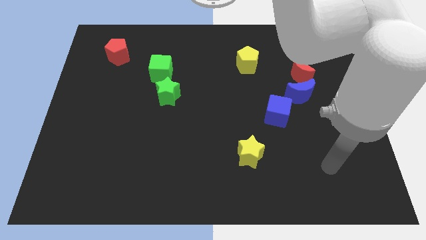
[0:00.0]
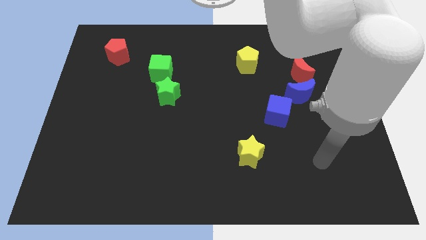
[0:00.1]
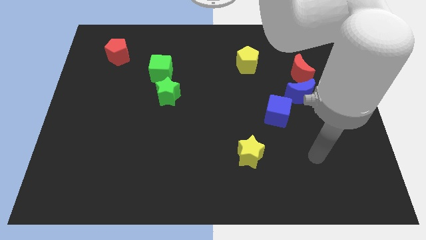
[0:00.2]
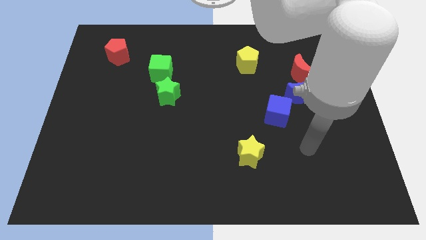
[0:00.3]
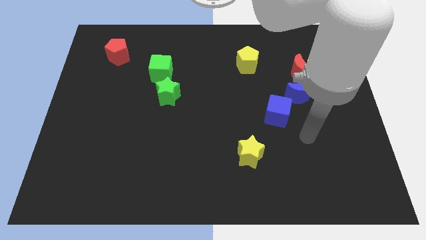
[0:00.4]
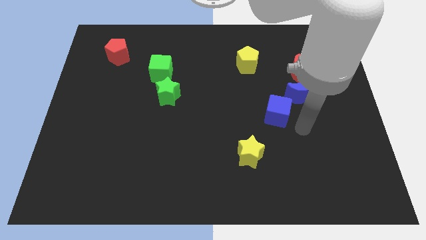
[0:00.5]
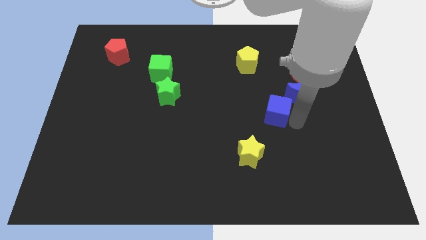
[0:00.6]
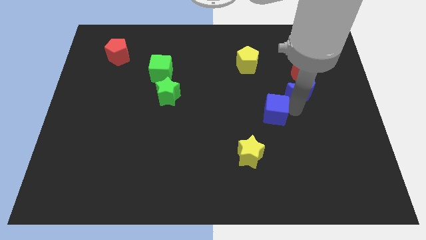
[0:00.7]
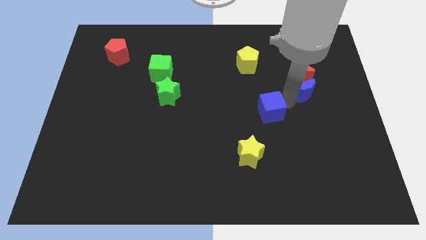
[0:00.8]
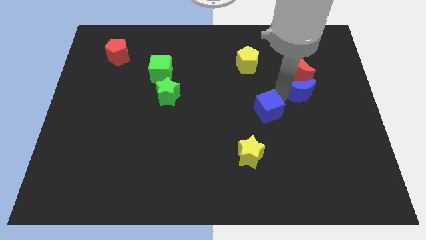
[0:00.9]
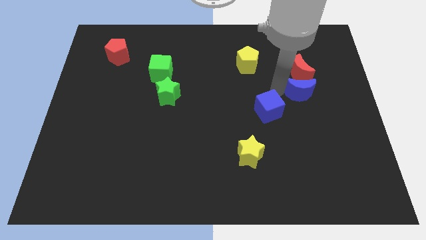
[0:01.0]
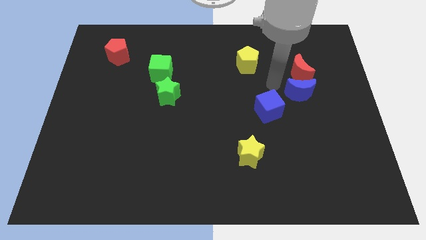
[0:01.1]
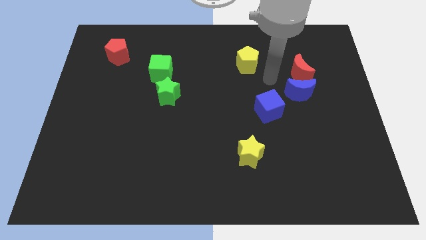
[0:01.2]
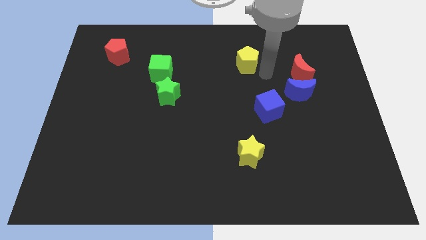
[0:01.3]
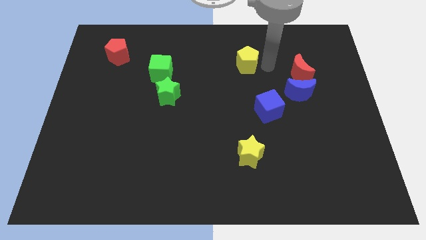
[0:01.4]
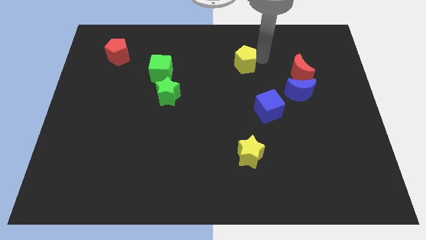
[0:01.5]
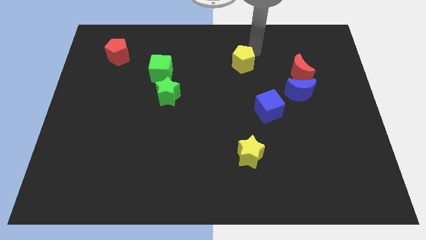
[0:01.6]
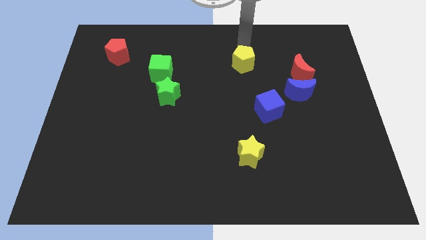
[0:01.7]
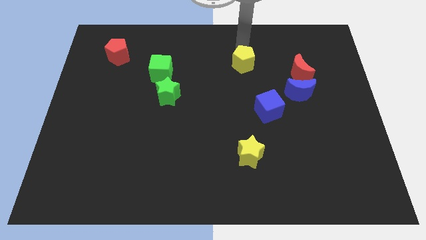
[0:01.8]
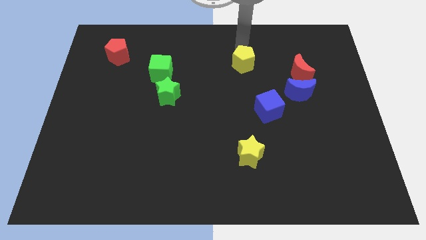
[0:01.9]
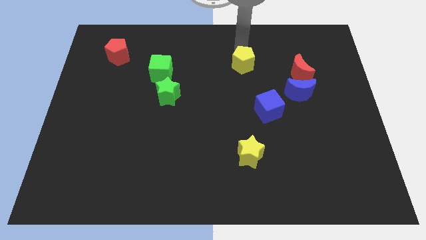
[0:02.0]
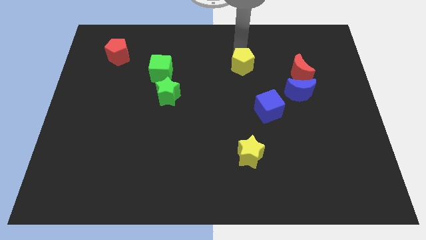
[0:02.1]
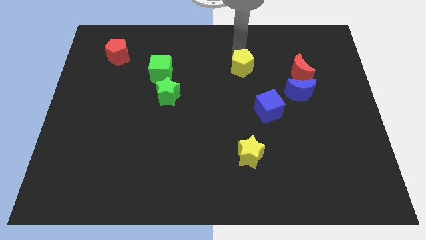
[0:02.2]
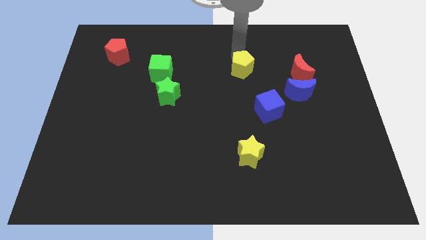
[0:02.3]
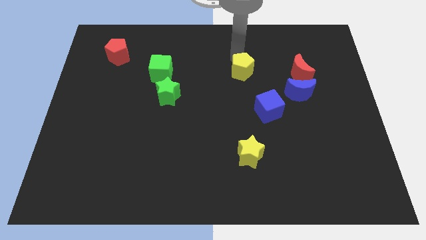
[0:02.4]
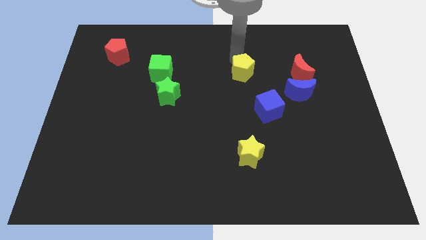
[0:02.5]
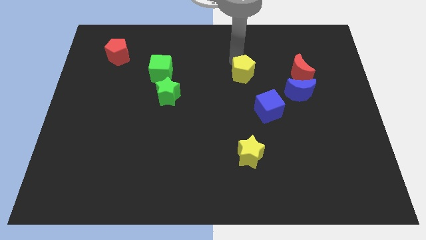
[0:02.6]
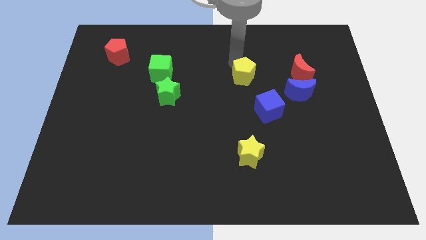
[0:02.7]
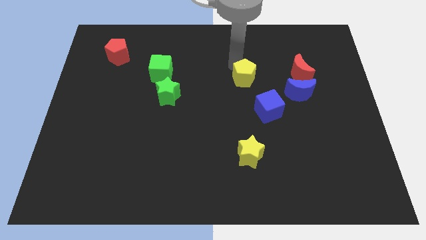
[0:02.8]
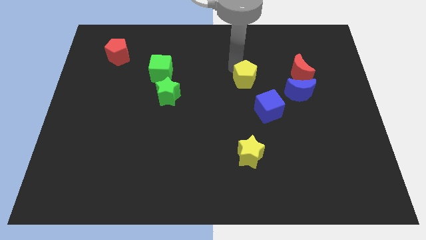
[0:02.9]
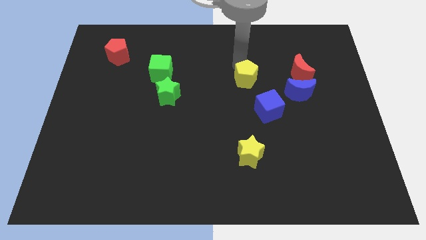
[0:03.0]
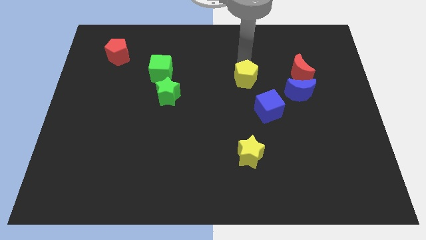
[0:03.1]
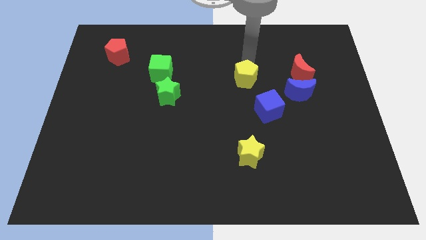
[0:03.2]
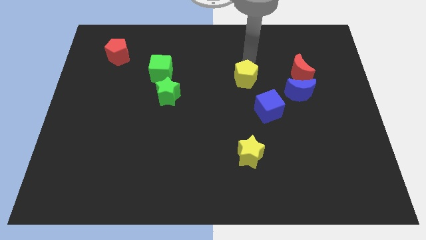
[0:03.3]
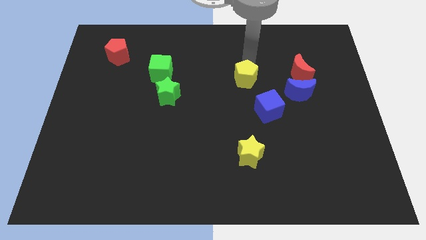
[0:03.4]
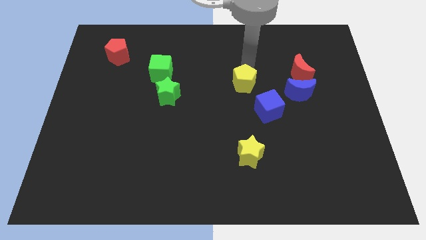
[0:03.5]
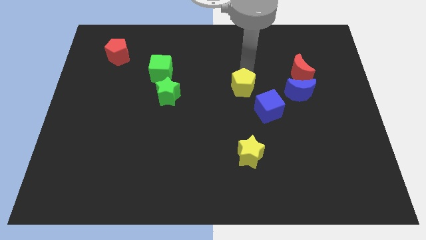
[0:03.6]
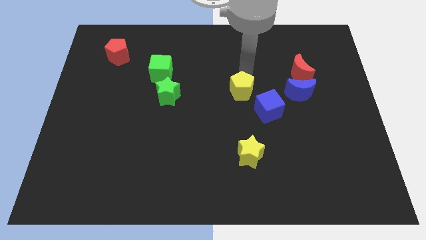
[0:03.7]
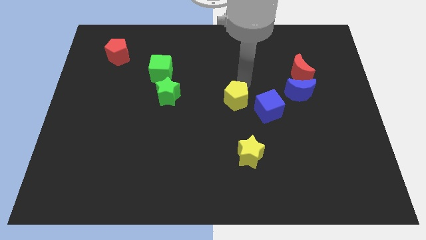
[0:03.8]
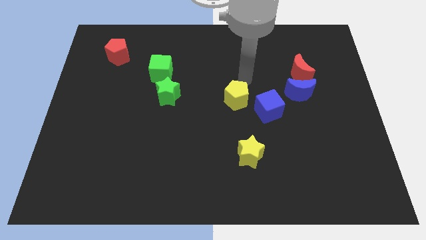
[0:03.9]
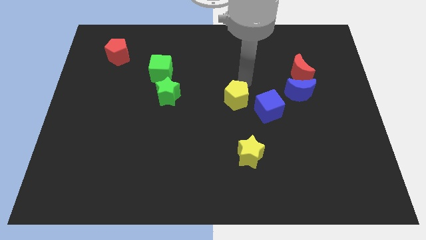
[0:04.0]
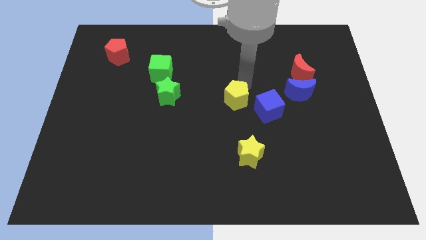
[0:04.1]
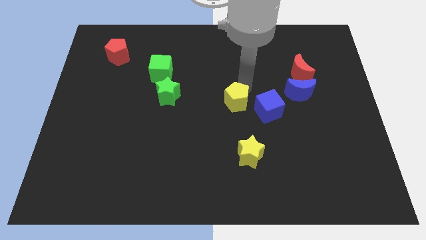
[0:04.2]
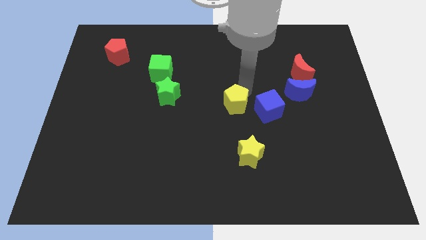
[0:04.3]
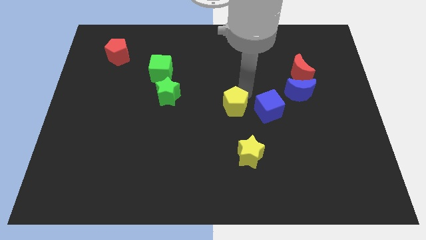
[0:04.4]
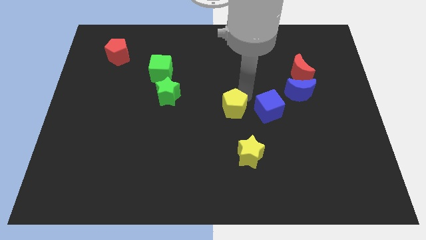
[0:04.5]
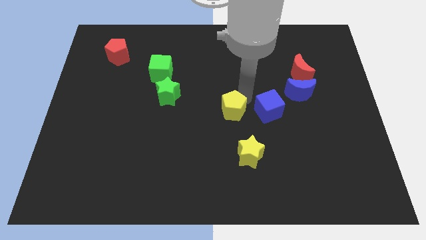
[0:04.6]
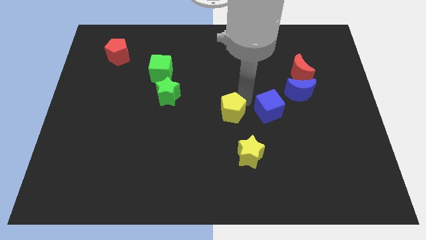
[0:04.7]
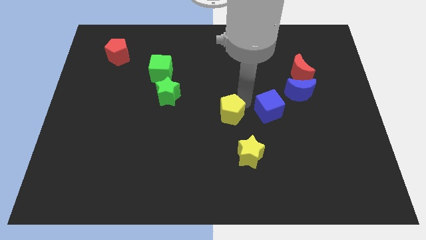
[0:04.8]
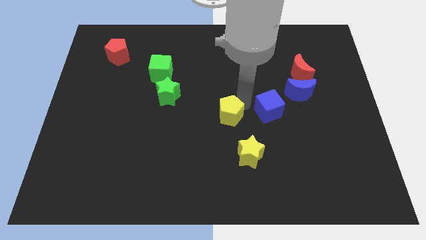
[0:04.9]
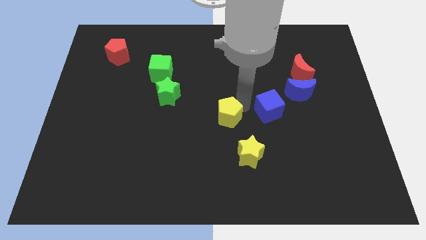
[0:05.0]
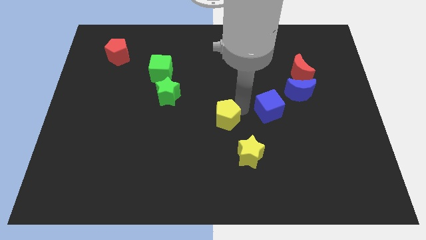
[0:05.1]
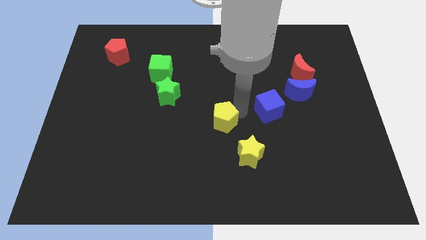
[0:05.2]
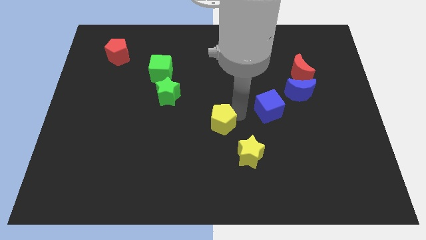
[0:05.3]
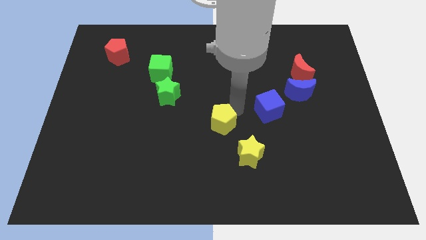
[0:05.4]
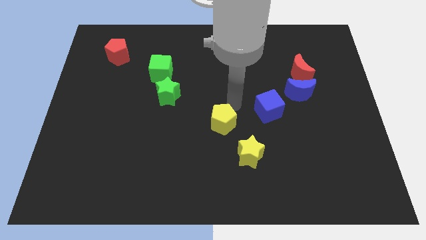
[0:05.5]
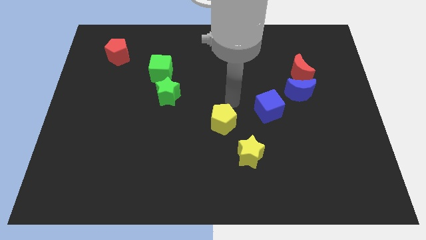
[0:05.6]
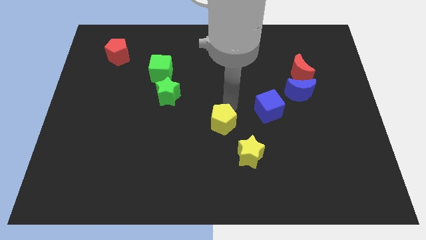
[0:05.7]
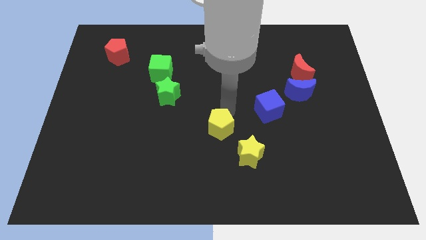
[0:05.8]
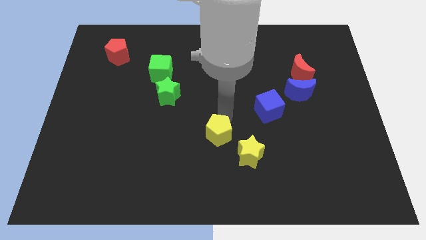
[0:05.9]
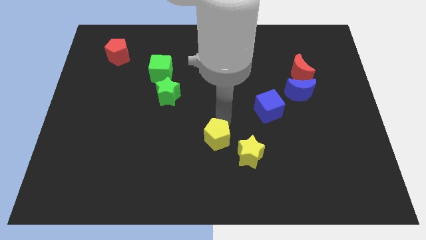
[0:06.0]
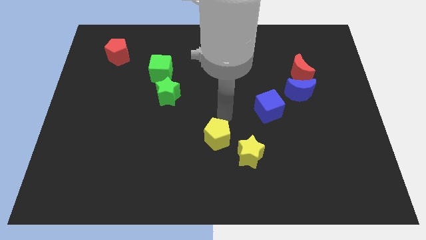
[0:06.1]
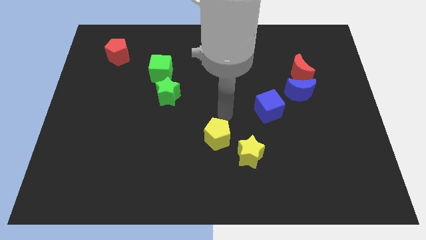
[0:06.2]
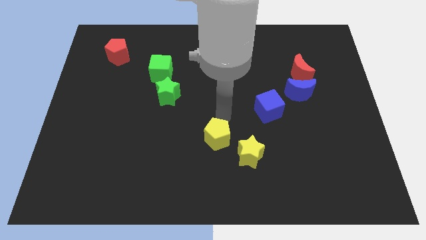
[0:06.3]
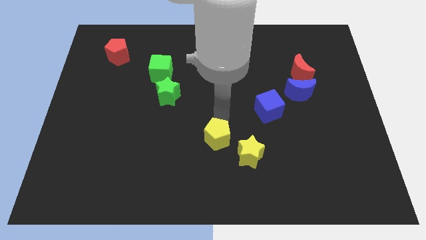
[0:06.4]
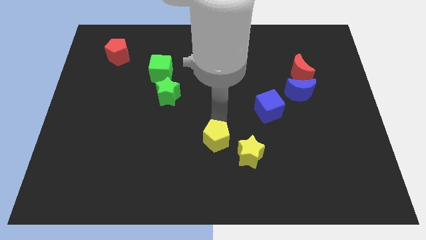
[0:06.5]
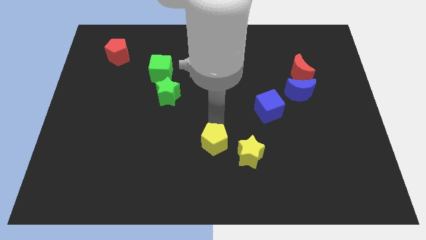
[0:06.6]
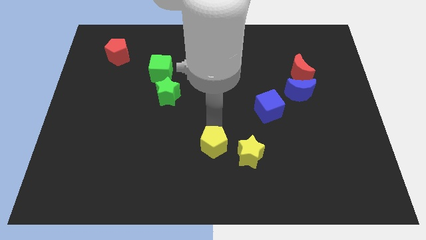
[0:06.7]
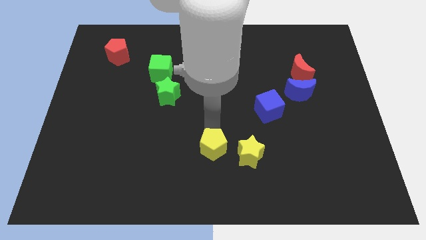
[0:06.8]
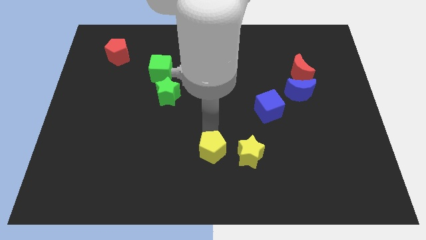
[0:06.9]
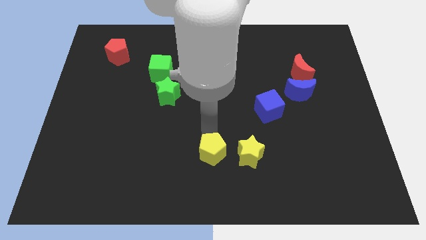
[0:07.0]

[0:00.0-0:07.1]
put the yellow pentagon to the bottom side
